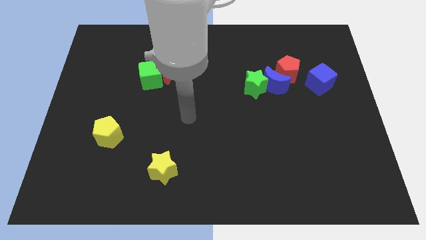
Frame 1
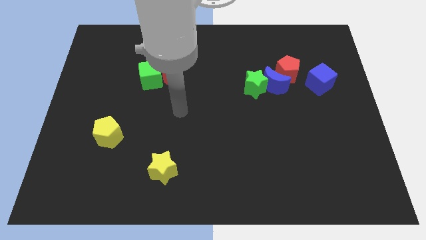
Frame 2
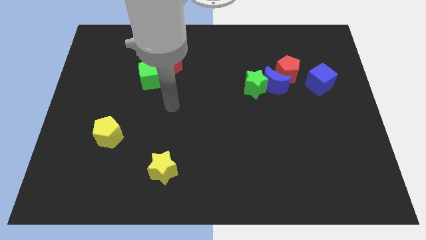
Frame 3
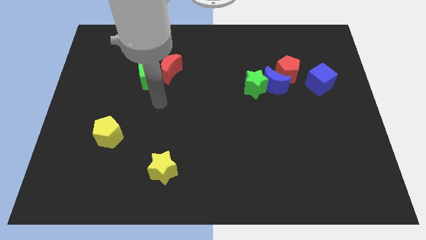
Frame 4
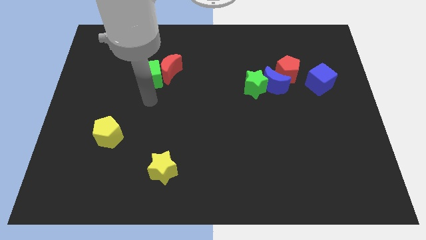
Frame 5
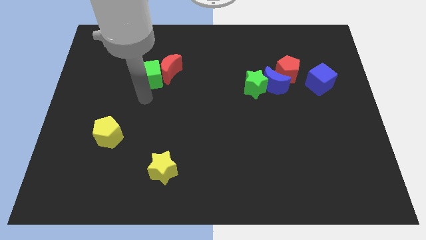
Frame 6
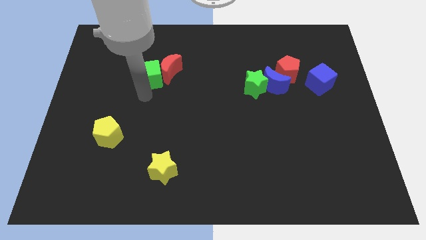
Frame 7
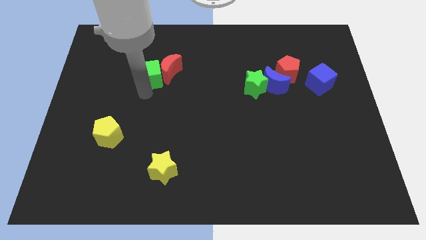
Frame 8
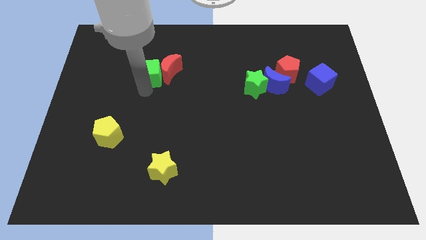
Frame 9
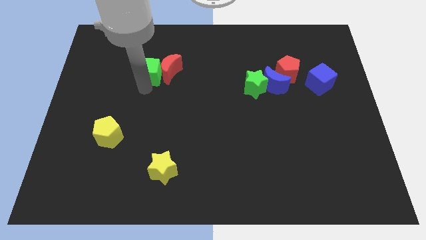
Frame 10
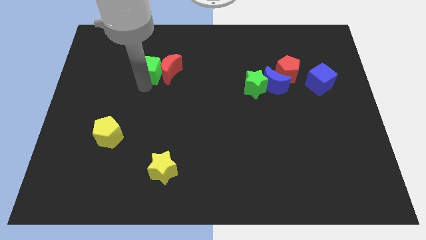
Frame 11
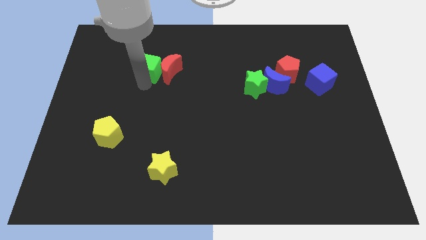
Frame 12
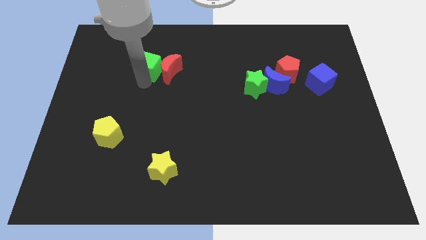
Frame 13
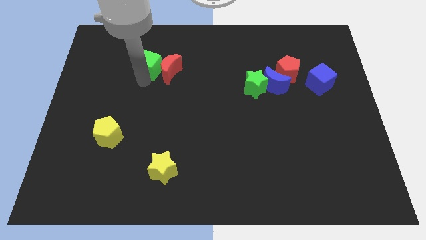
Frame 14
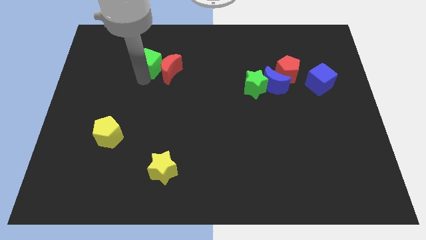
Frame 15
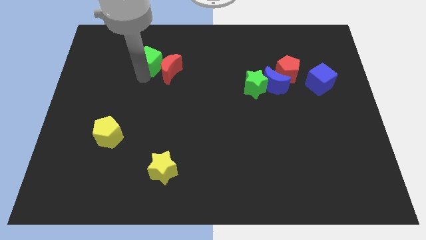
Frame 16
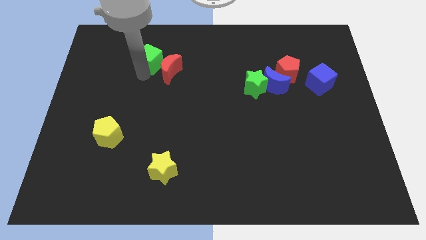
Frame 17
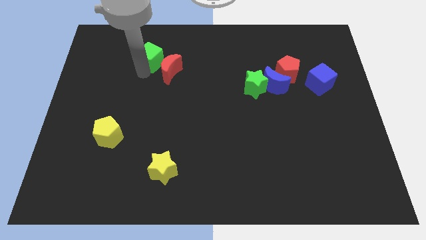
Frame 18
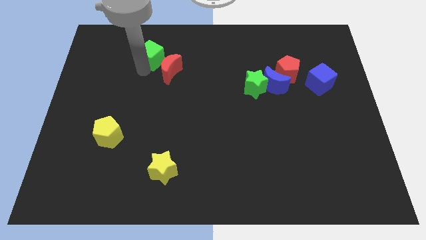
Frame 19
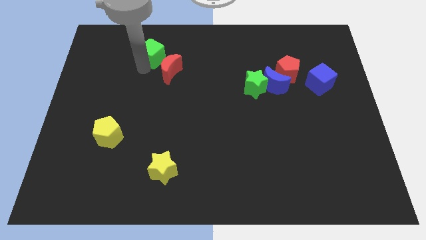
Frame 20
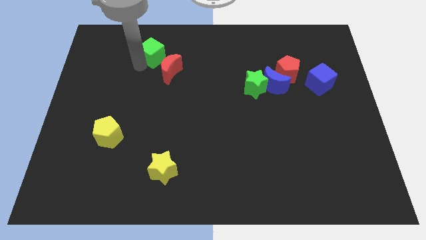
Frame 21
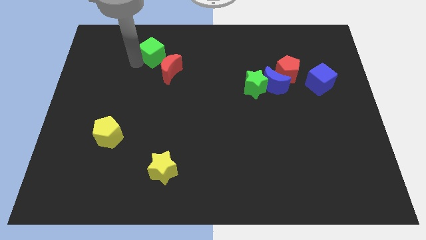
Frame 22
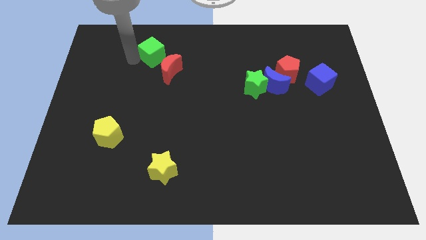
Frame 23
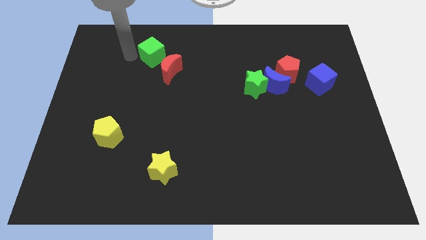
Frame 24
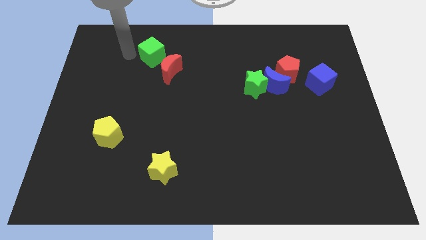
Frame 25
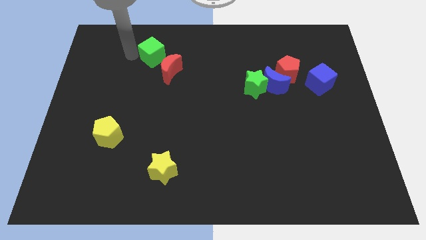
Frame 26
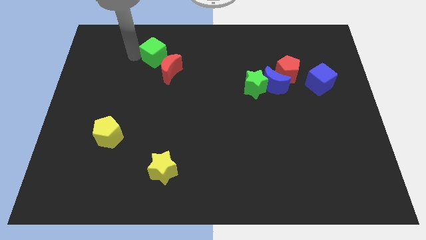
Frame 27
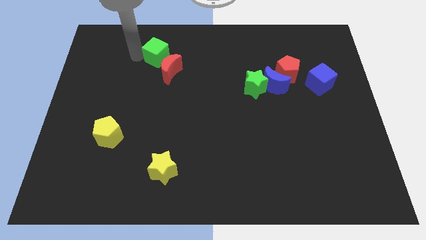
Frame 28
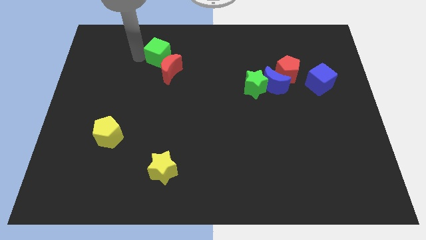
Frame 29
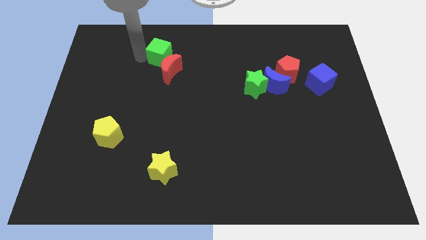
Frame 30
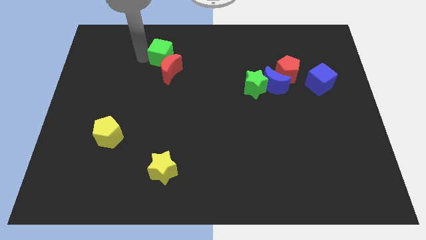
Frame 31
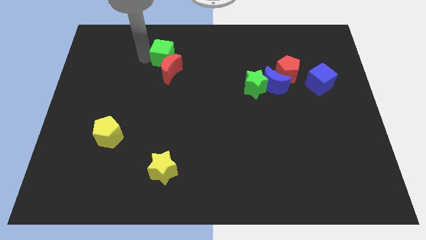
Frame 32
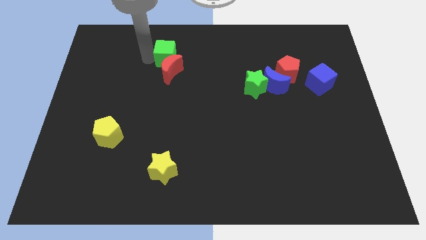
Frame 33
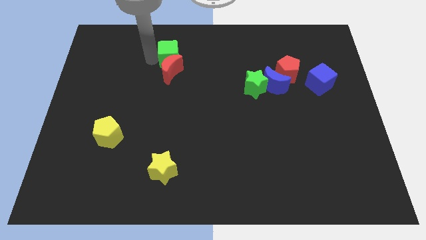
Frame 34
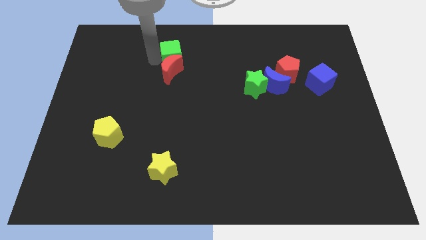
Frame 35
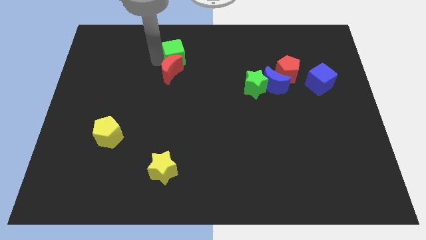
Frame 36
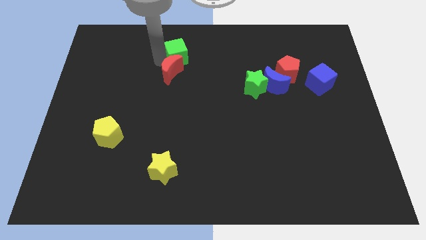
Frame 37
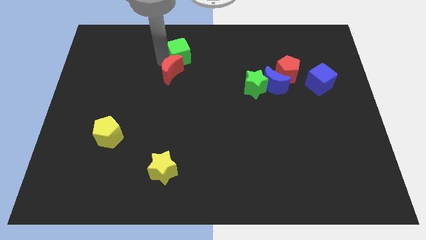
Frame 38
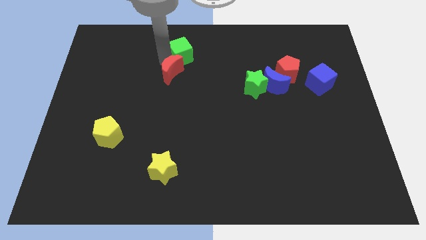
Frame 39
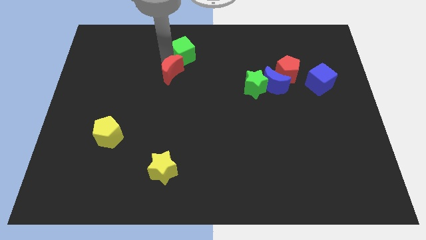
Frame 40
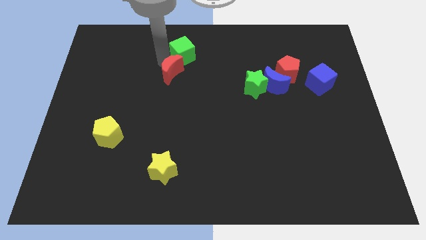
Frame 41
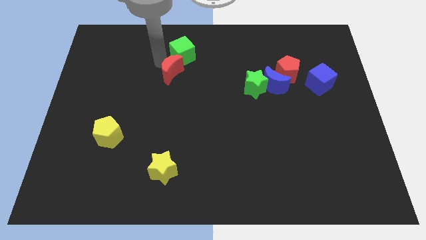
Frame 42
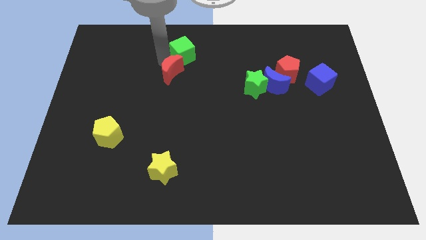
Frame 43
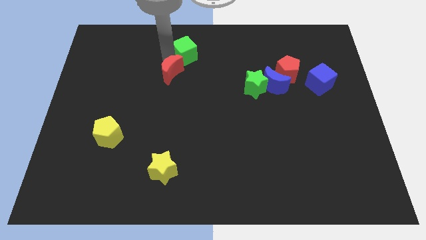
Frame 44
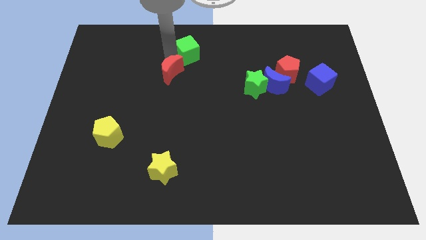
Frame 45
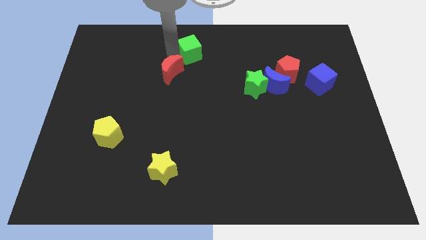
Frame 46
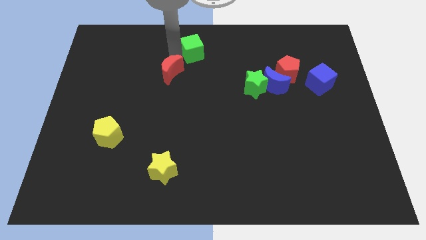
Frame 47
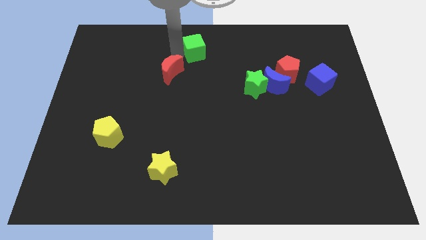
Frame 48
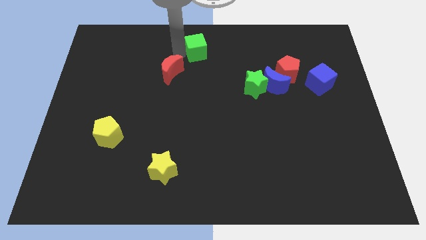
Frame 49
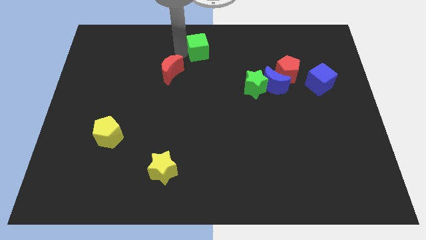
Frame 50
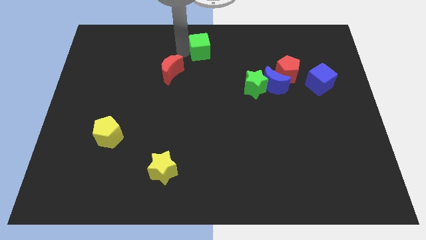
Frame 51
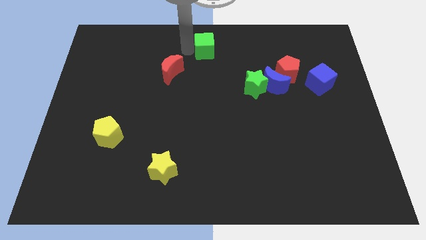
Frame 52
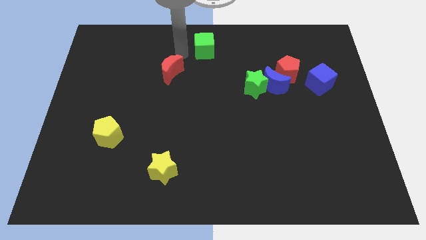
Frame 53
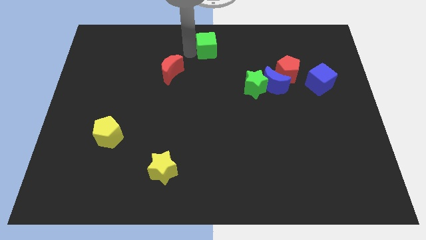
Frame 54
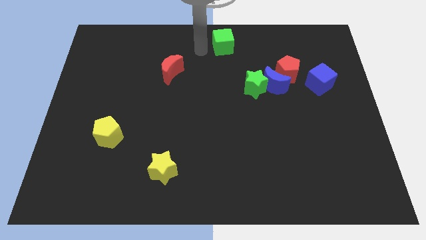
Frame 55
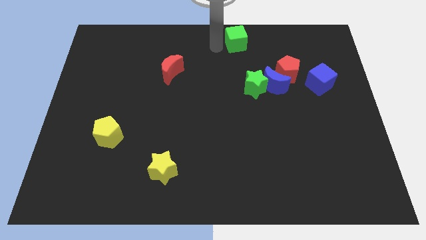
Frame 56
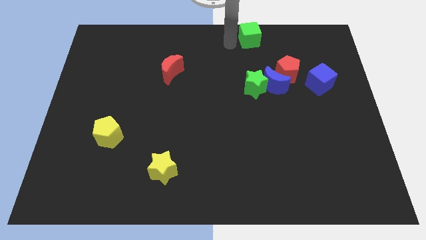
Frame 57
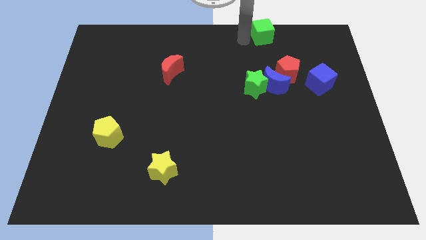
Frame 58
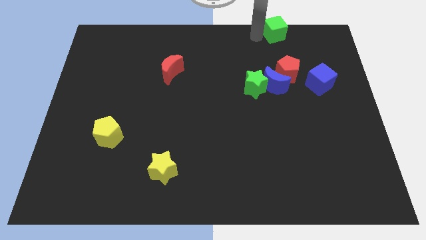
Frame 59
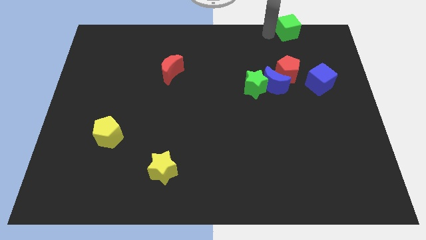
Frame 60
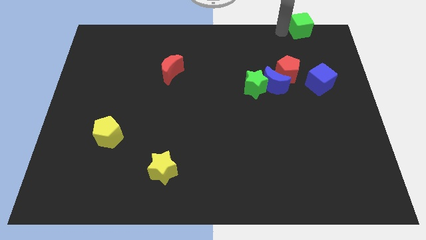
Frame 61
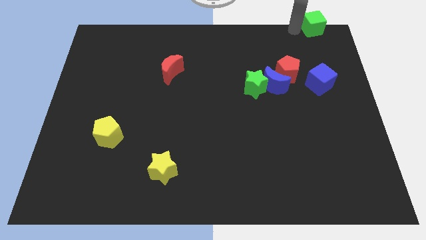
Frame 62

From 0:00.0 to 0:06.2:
put the green cube to the top right corner
